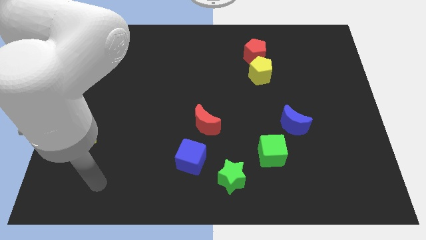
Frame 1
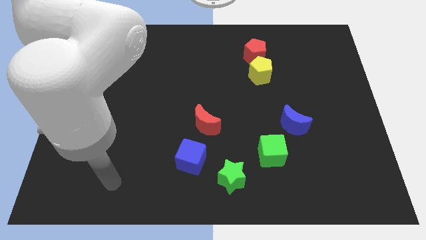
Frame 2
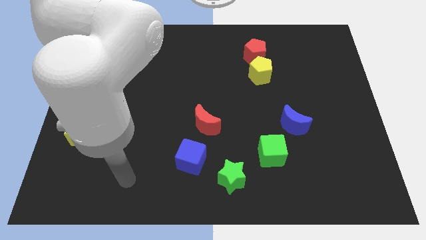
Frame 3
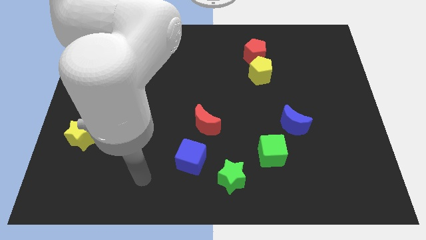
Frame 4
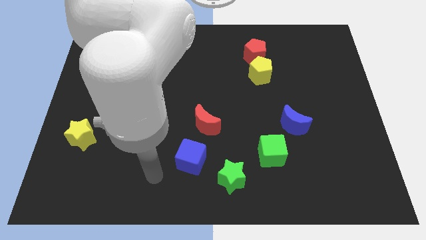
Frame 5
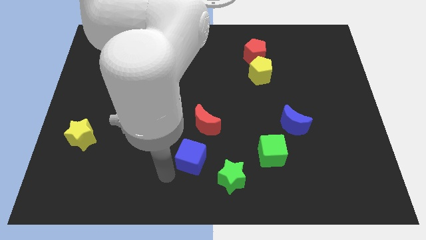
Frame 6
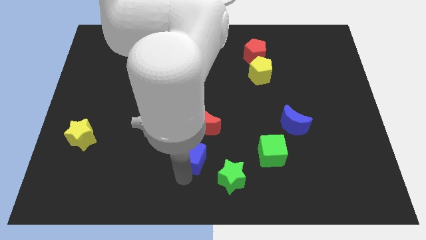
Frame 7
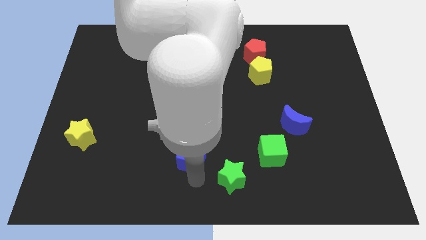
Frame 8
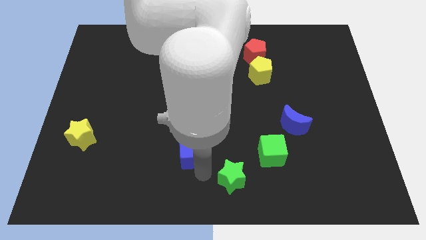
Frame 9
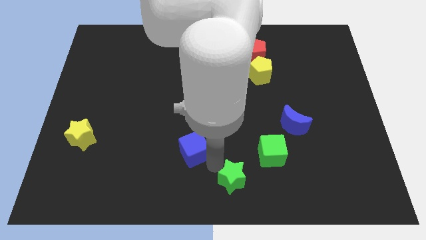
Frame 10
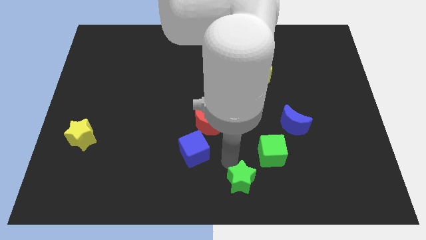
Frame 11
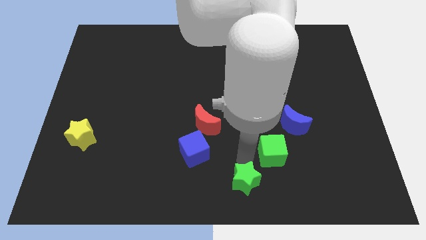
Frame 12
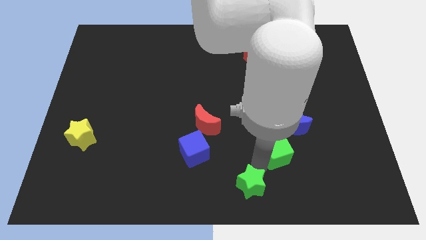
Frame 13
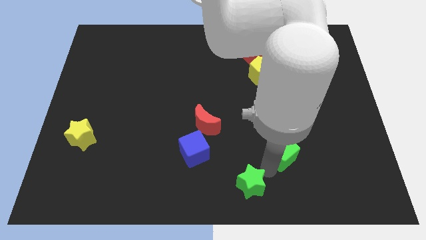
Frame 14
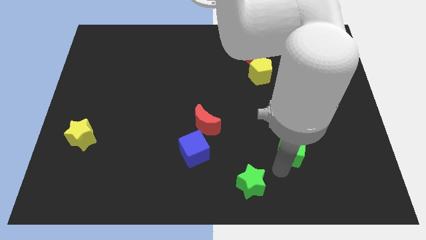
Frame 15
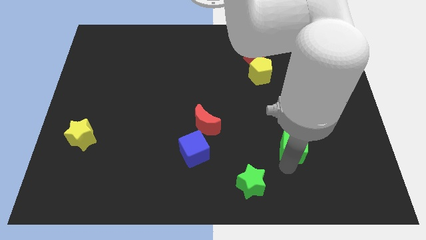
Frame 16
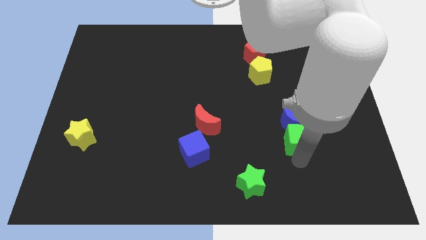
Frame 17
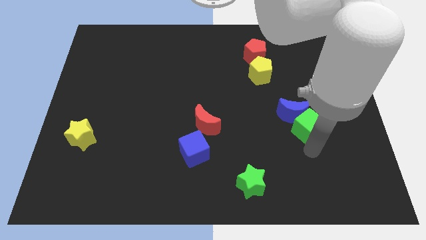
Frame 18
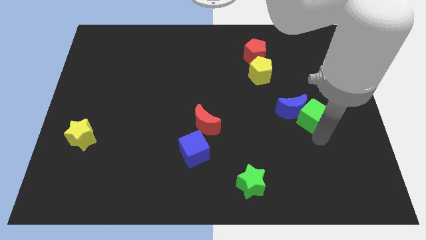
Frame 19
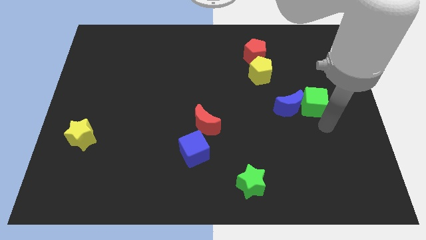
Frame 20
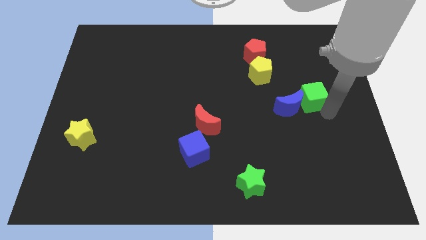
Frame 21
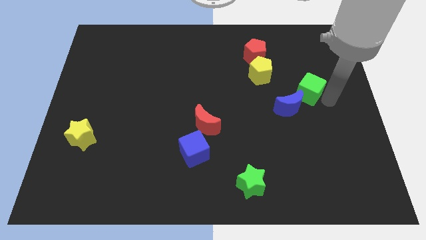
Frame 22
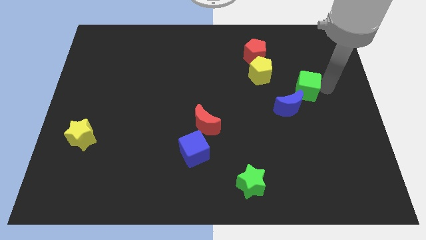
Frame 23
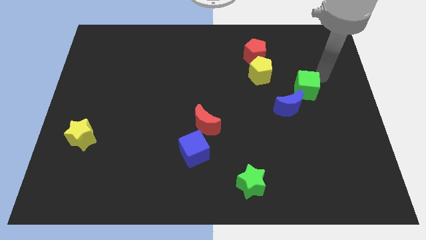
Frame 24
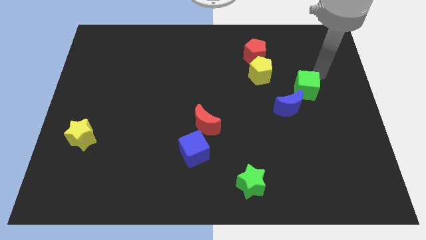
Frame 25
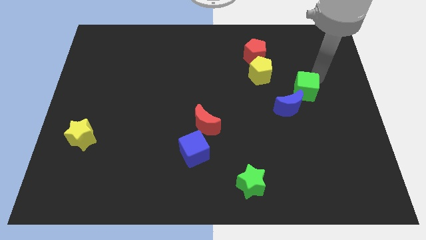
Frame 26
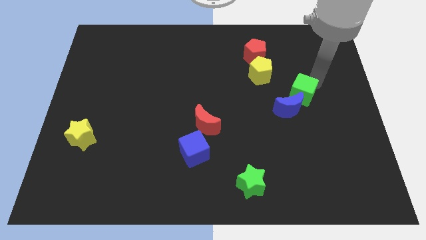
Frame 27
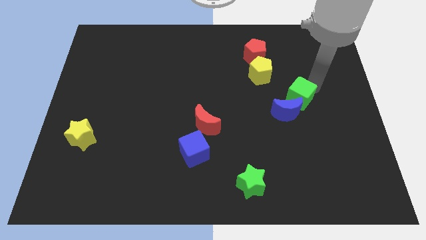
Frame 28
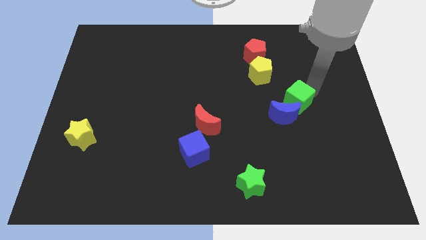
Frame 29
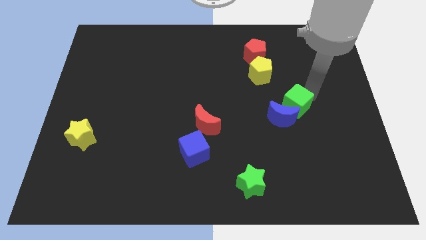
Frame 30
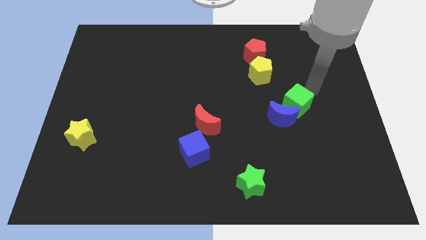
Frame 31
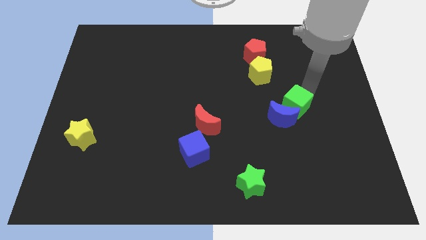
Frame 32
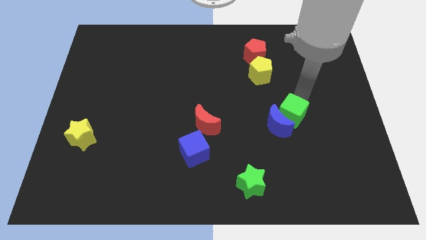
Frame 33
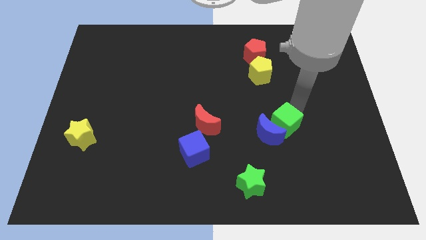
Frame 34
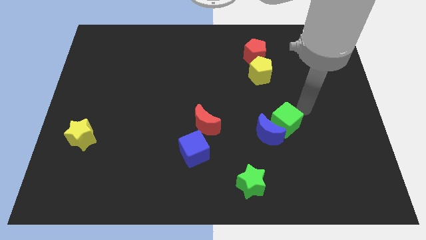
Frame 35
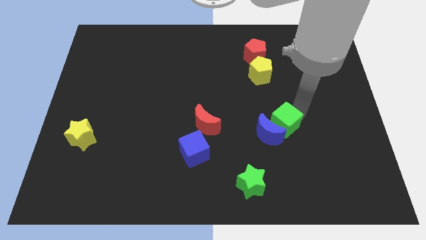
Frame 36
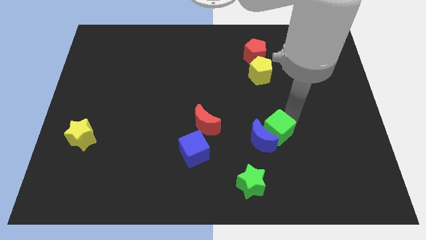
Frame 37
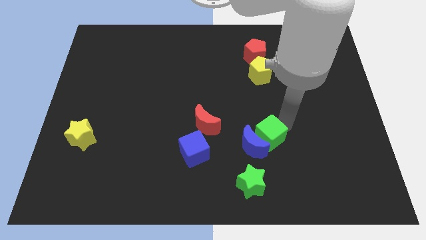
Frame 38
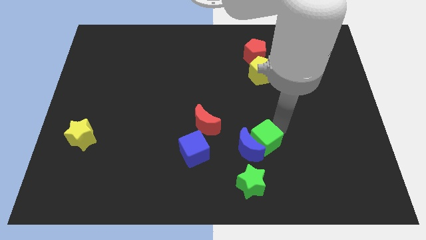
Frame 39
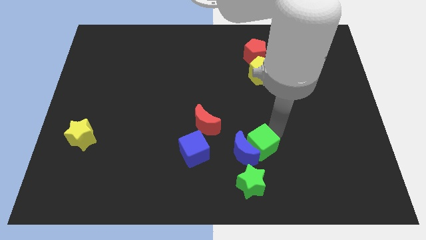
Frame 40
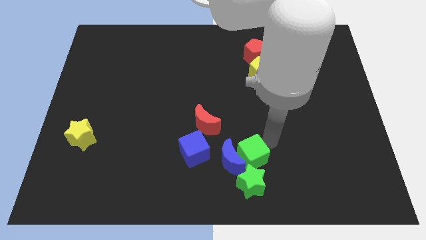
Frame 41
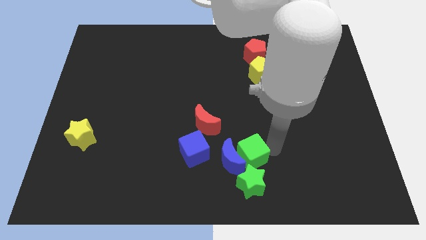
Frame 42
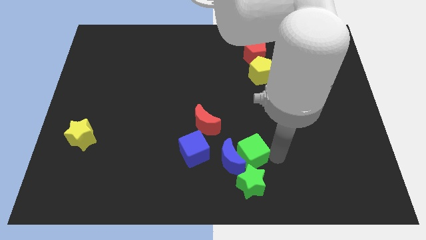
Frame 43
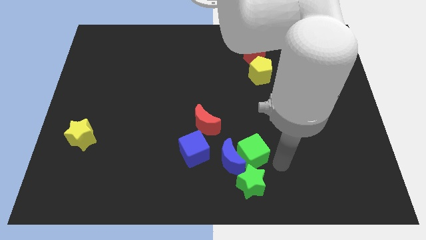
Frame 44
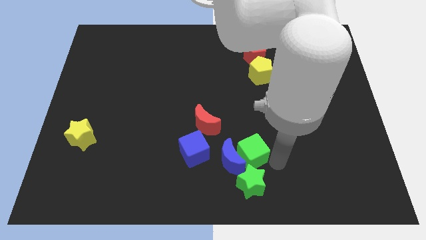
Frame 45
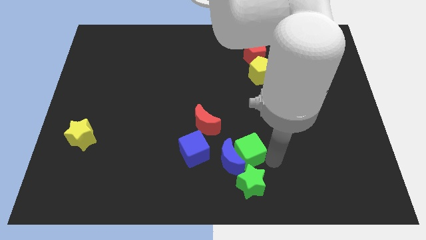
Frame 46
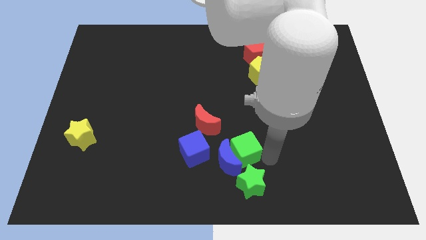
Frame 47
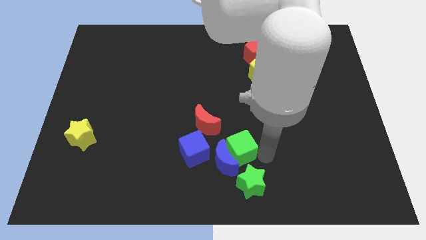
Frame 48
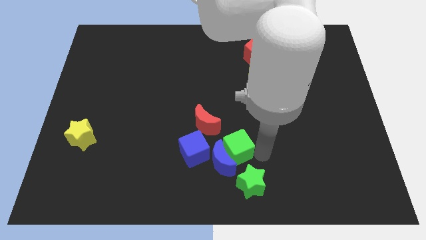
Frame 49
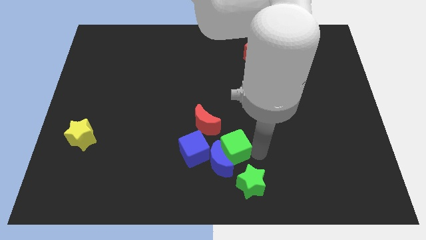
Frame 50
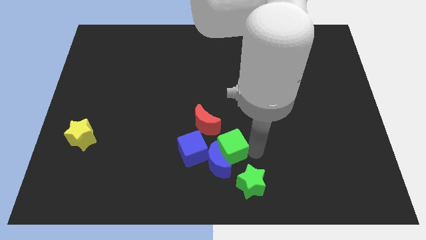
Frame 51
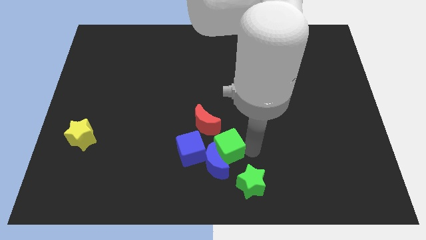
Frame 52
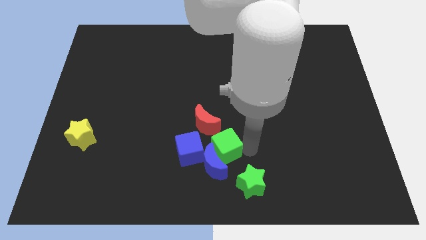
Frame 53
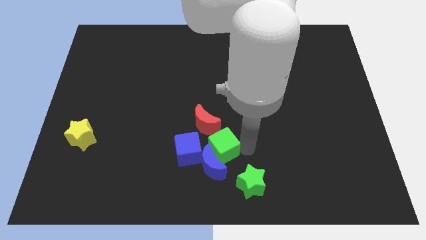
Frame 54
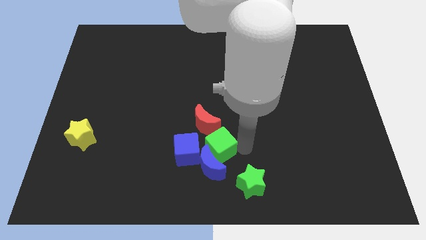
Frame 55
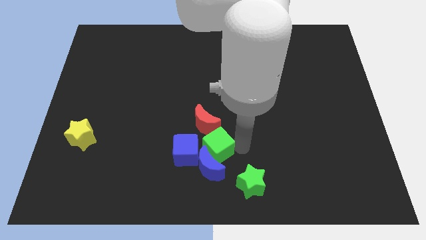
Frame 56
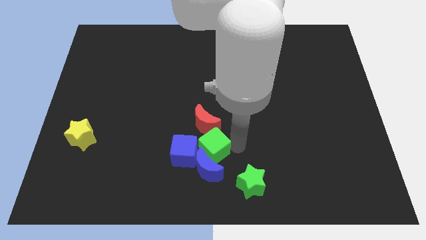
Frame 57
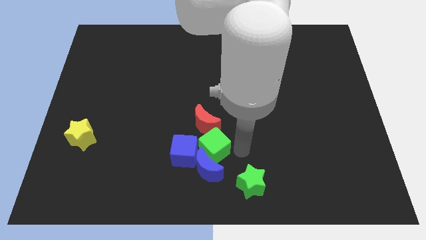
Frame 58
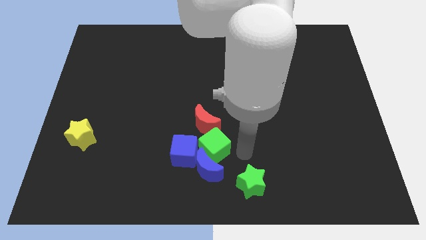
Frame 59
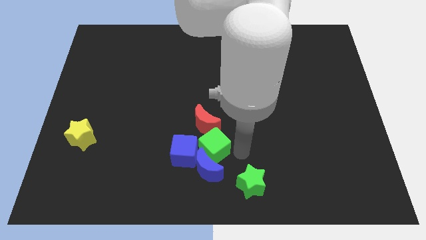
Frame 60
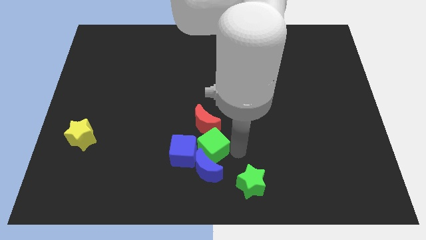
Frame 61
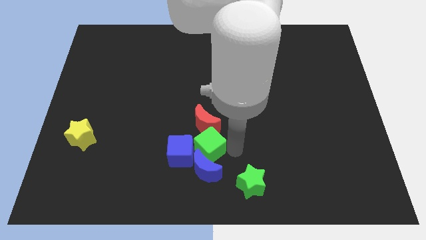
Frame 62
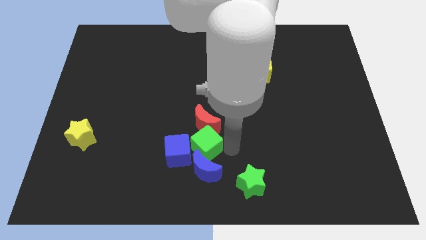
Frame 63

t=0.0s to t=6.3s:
move the green cube diagonally down and to the left of the red moon

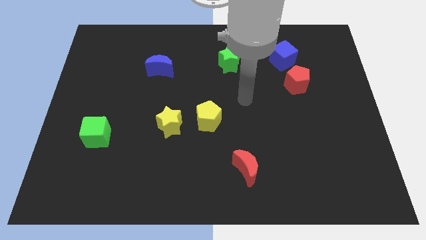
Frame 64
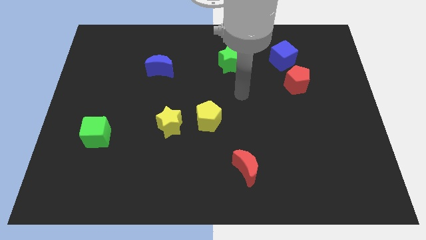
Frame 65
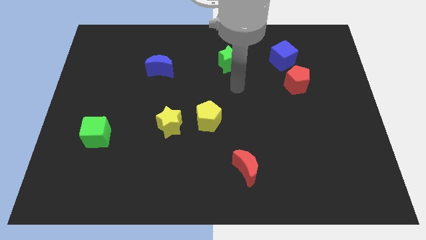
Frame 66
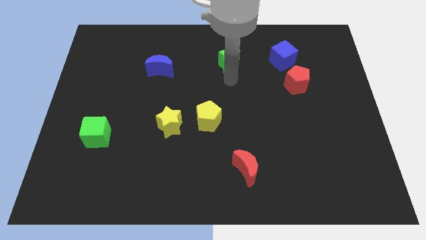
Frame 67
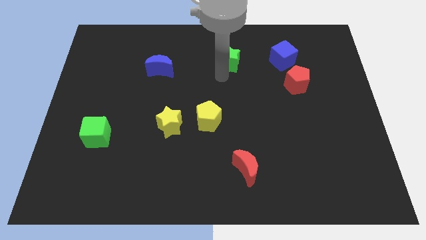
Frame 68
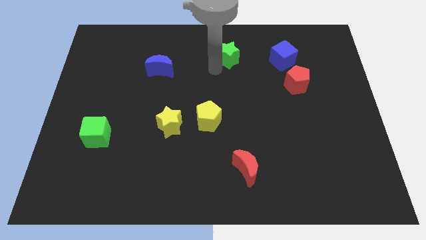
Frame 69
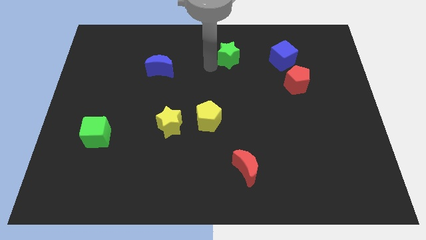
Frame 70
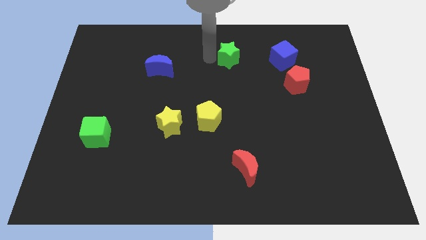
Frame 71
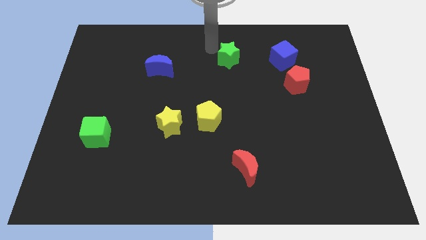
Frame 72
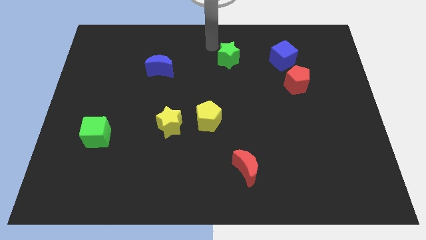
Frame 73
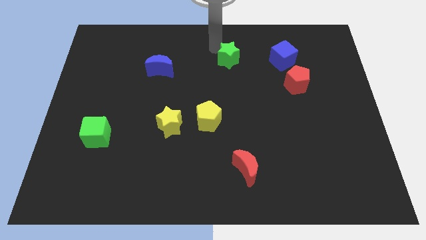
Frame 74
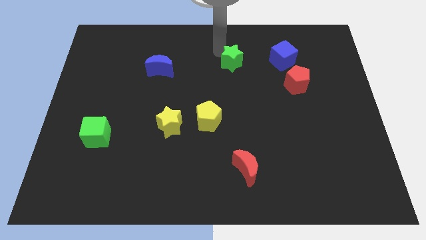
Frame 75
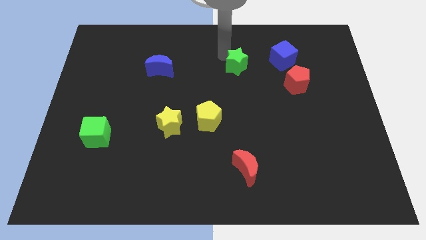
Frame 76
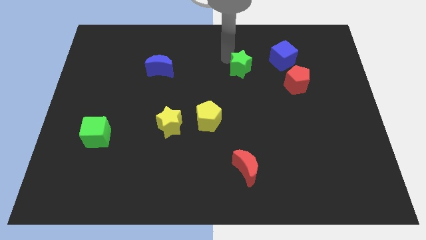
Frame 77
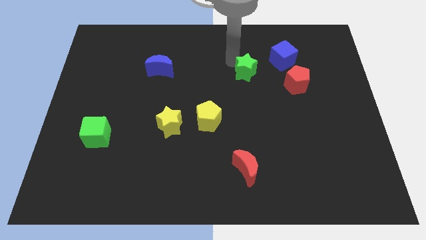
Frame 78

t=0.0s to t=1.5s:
move the green star just left of the red pentagon
